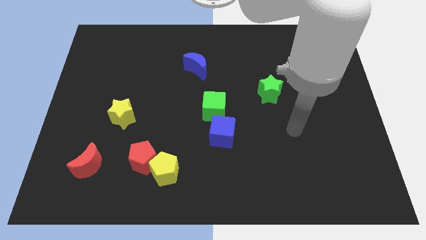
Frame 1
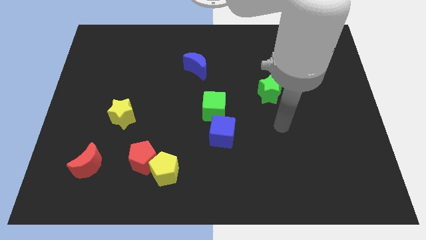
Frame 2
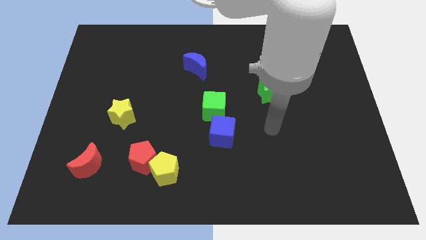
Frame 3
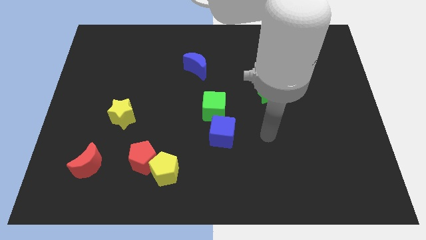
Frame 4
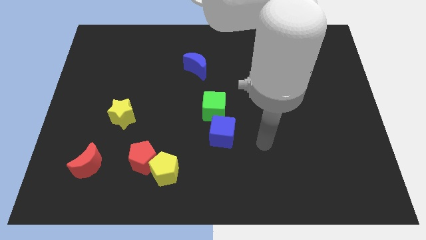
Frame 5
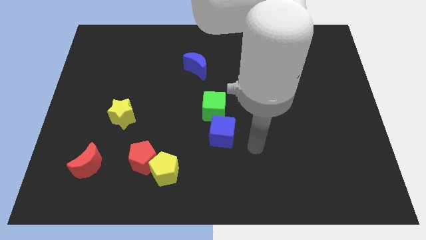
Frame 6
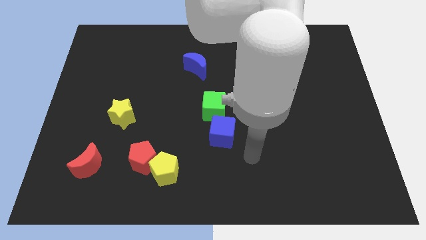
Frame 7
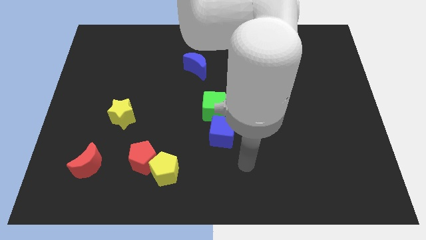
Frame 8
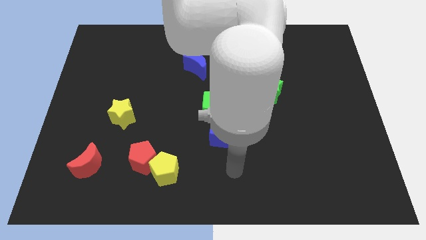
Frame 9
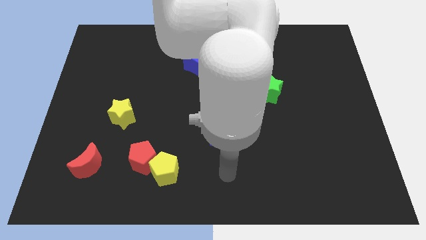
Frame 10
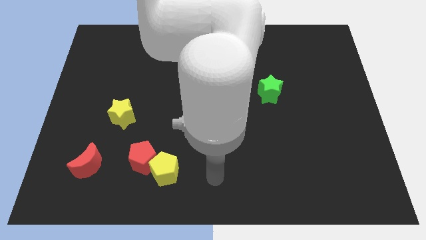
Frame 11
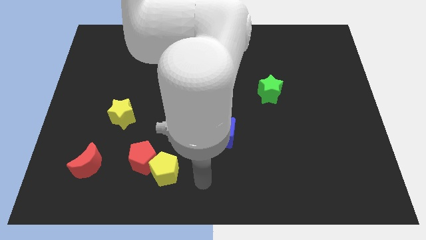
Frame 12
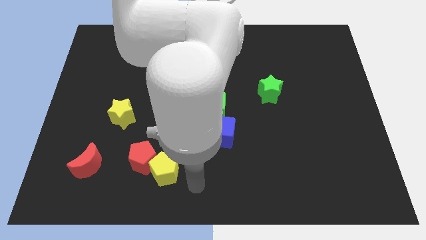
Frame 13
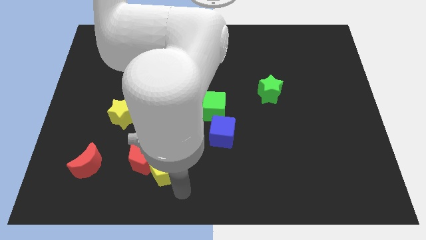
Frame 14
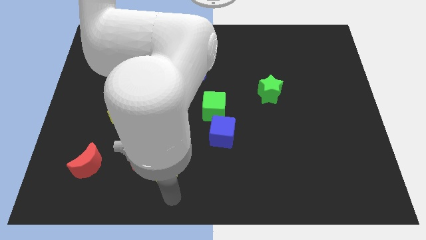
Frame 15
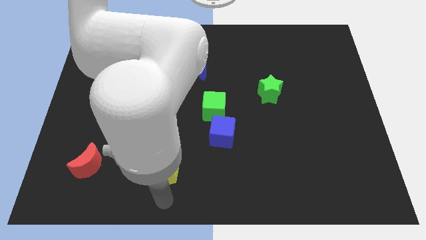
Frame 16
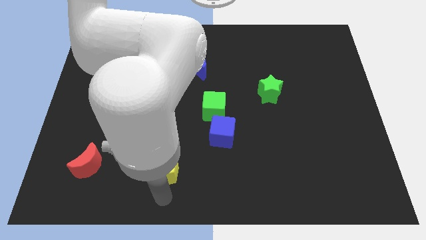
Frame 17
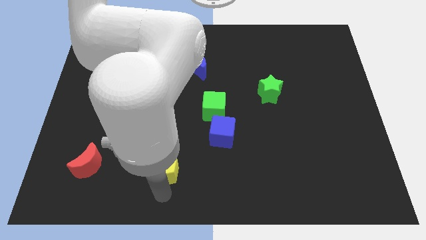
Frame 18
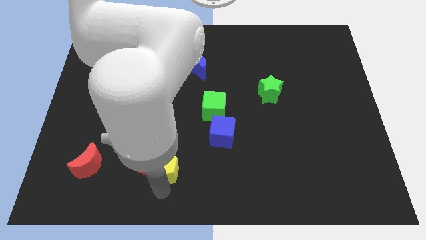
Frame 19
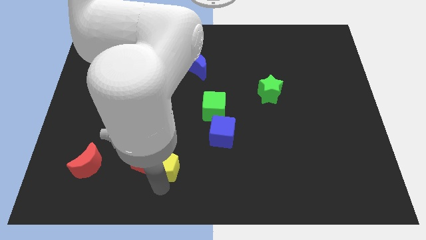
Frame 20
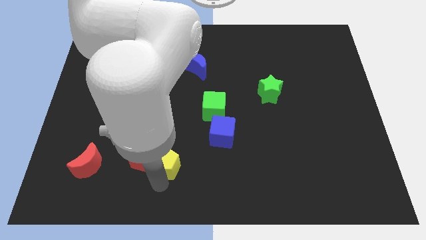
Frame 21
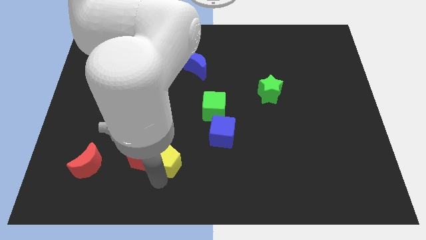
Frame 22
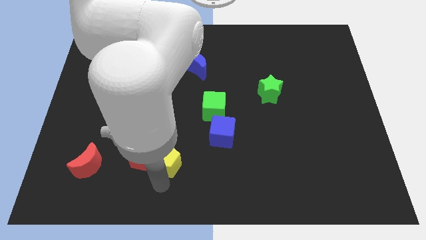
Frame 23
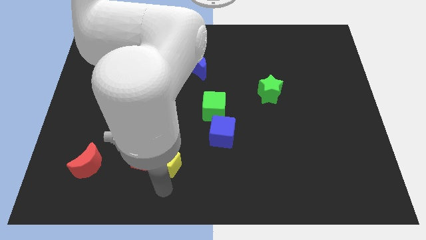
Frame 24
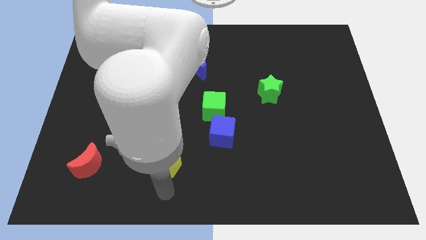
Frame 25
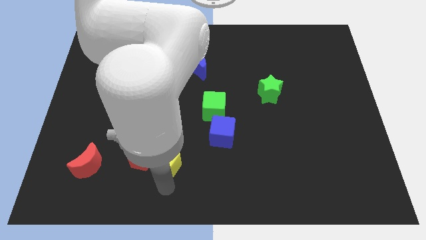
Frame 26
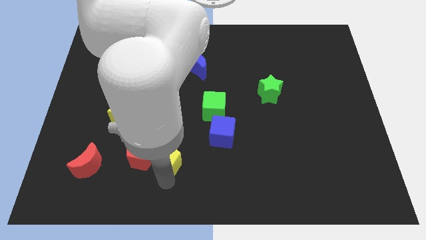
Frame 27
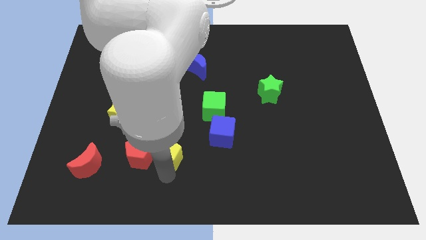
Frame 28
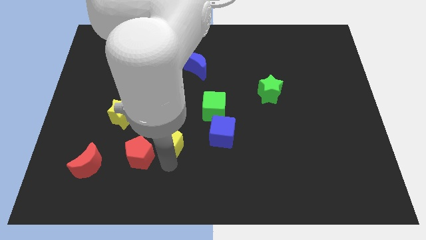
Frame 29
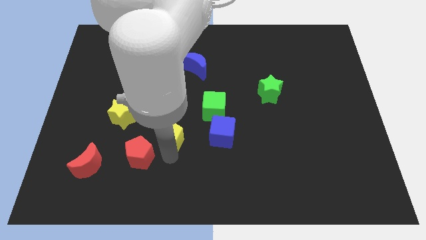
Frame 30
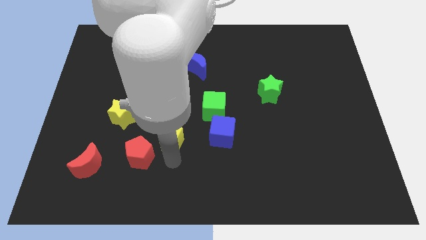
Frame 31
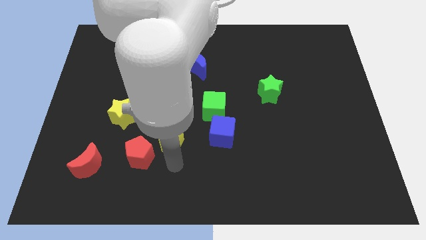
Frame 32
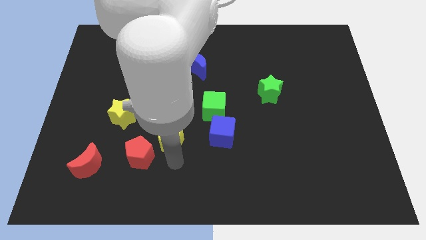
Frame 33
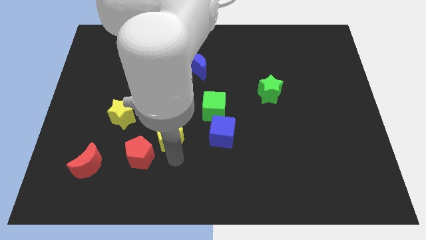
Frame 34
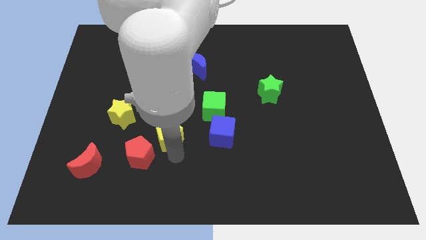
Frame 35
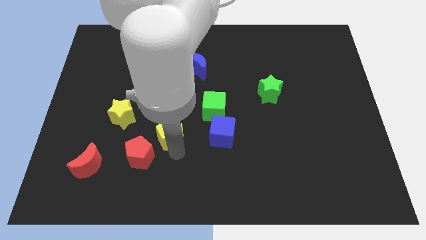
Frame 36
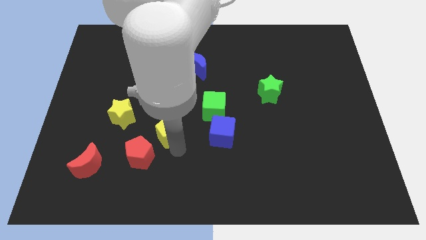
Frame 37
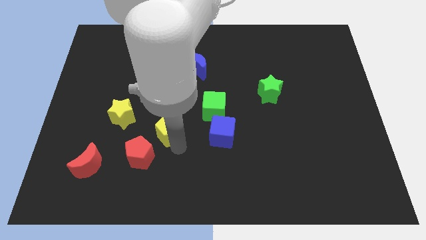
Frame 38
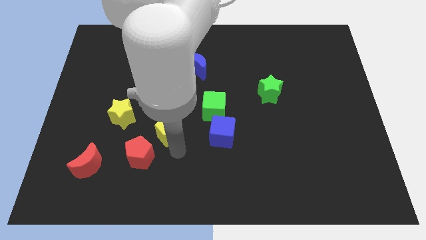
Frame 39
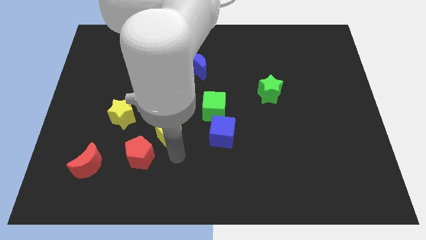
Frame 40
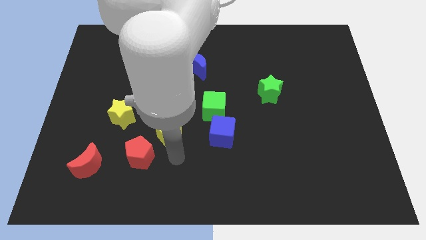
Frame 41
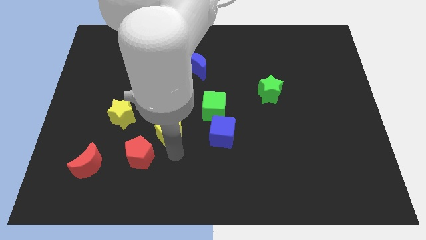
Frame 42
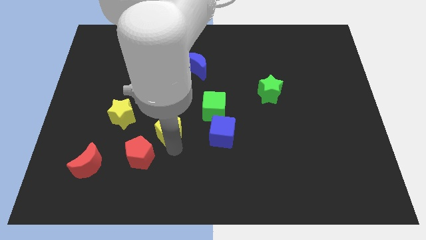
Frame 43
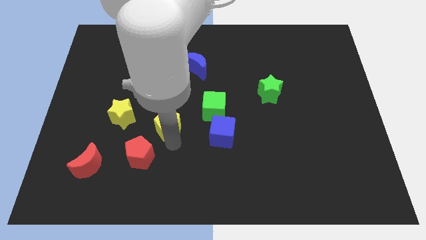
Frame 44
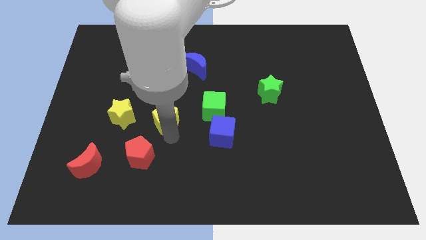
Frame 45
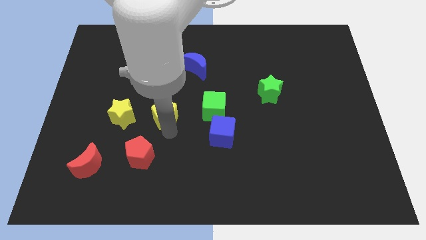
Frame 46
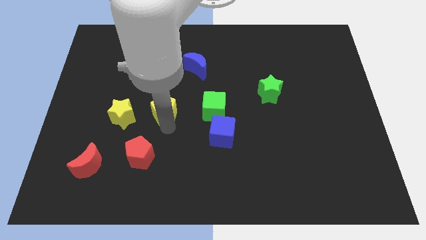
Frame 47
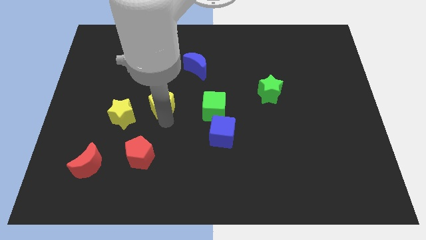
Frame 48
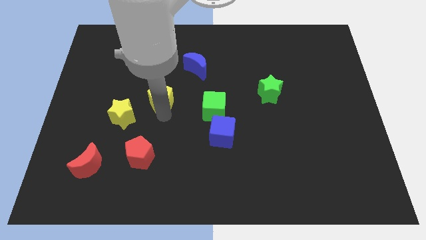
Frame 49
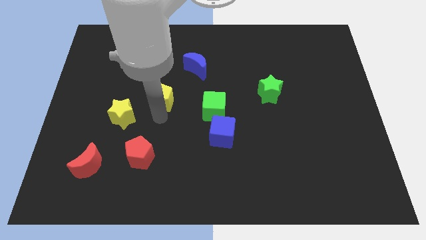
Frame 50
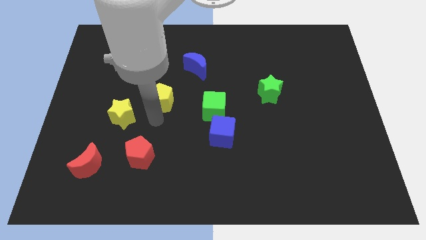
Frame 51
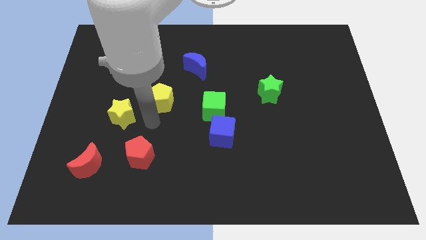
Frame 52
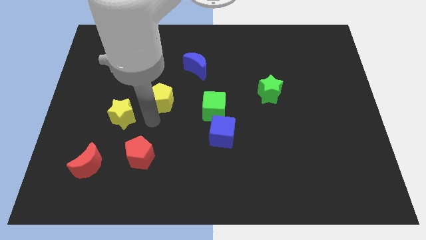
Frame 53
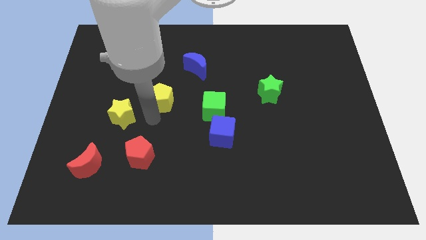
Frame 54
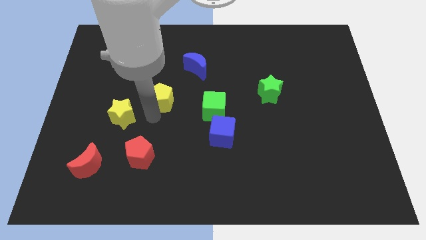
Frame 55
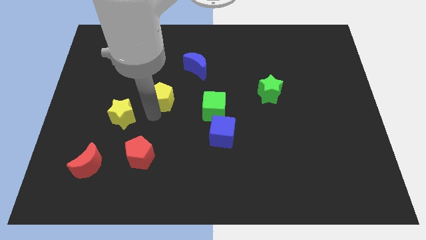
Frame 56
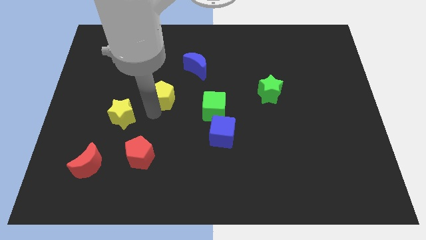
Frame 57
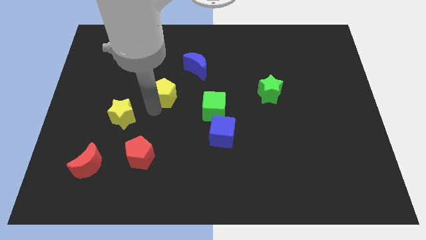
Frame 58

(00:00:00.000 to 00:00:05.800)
push the yellow pentagon up

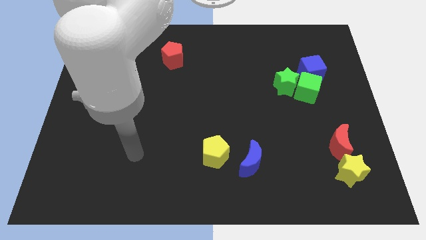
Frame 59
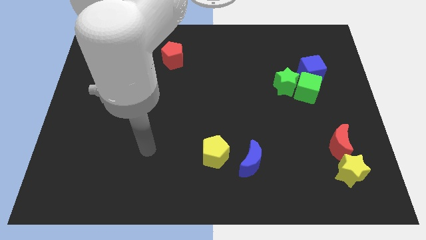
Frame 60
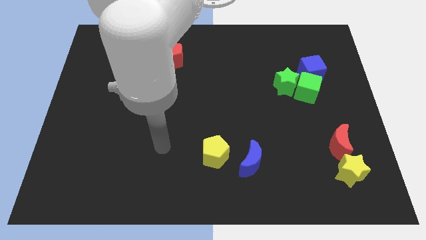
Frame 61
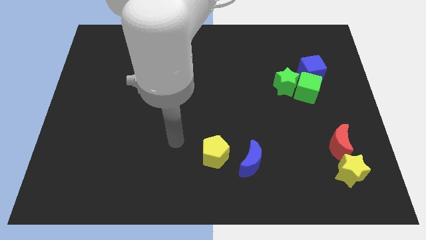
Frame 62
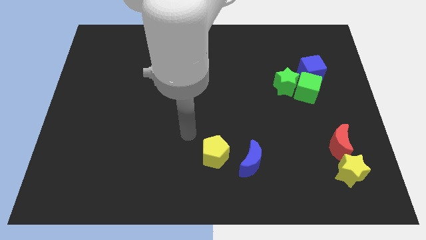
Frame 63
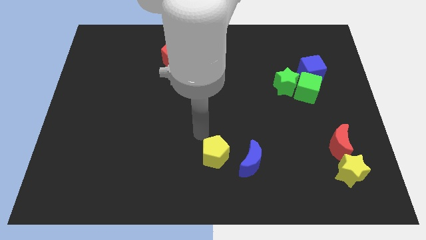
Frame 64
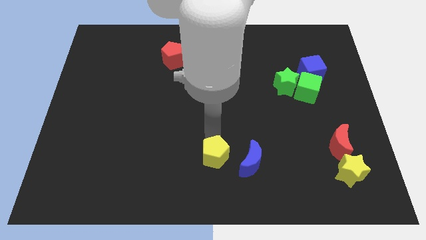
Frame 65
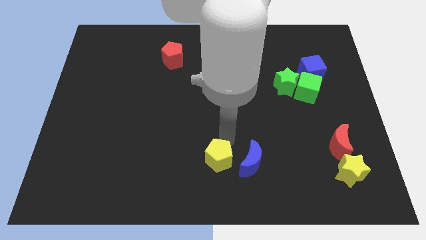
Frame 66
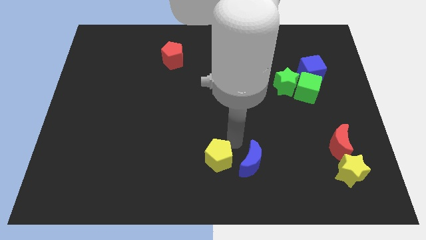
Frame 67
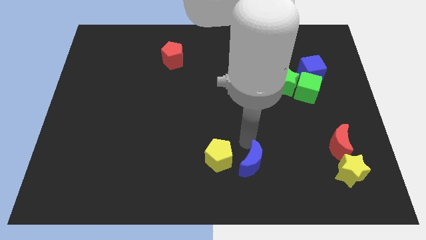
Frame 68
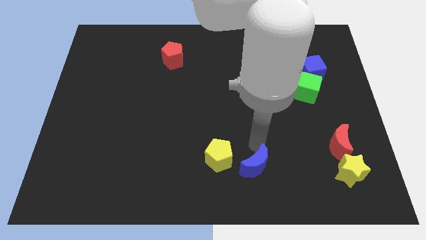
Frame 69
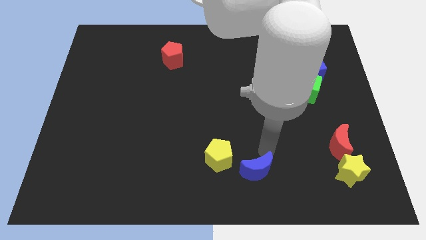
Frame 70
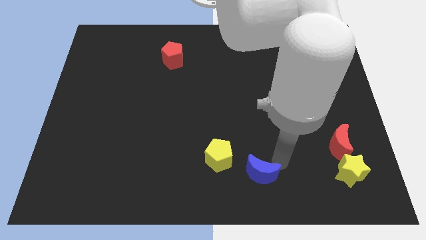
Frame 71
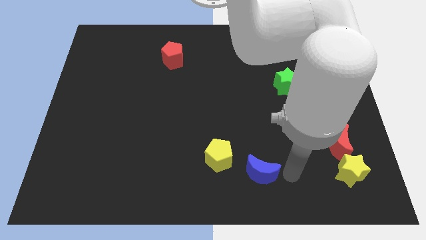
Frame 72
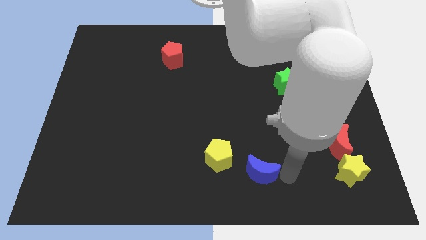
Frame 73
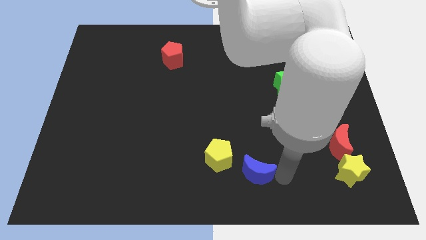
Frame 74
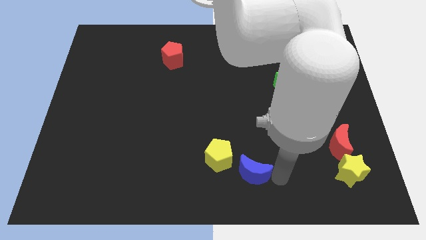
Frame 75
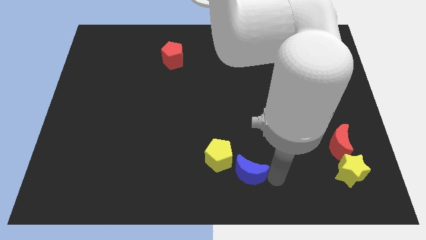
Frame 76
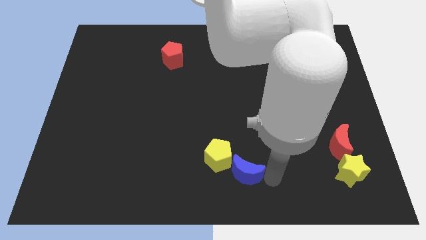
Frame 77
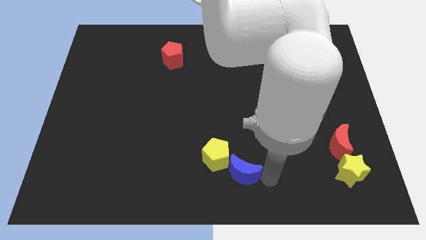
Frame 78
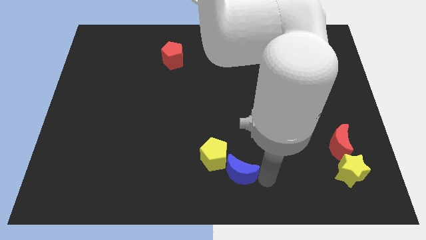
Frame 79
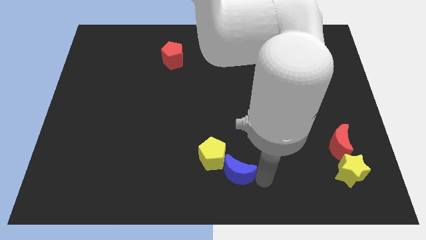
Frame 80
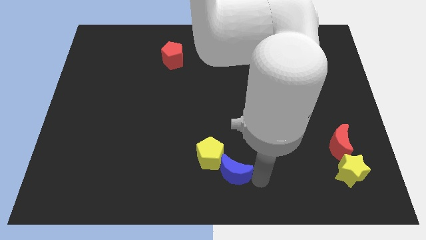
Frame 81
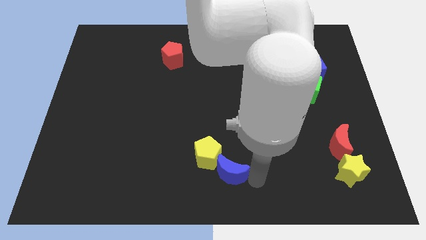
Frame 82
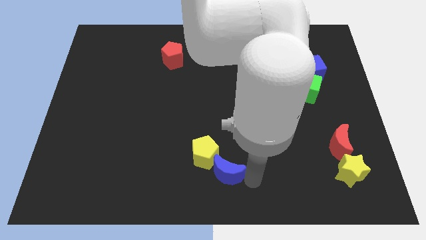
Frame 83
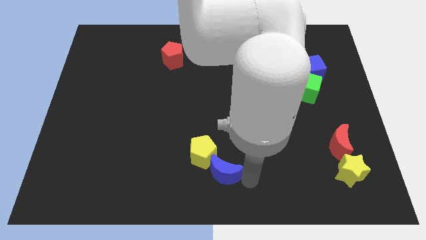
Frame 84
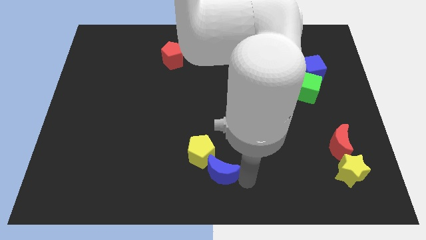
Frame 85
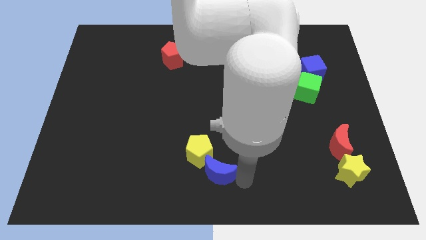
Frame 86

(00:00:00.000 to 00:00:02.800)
slightly push the blue moon to the left
